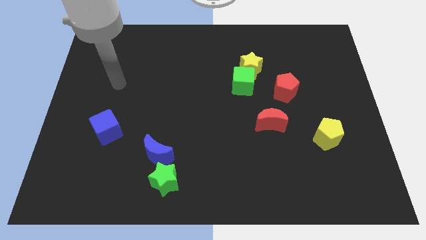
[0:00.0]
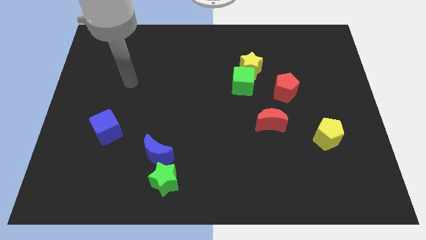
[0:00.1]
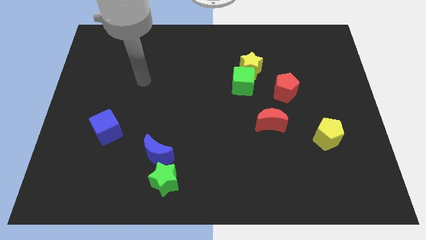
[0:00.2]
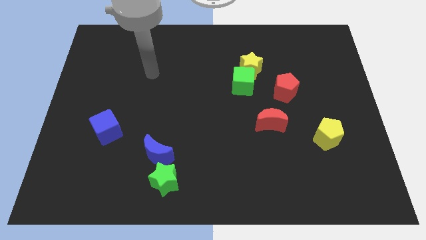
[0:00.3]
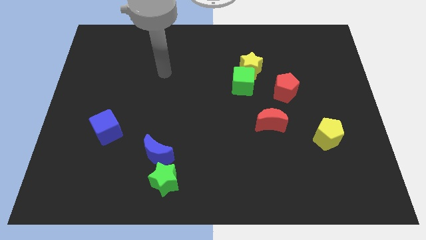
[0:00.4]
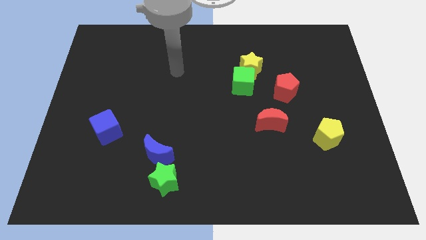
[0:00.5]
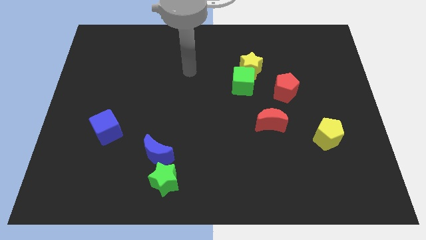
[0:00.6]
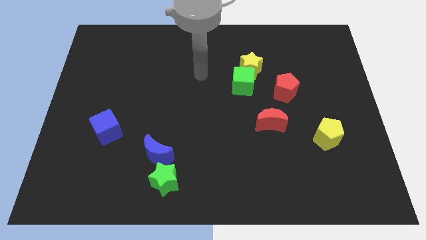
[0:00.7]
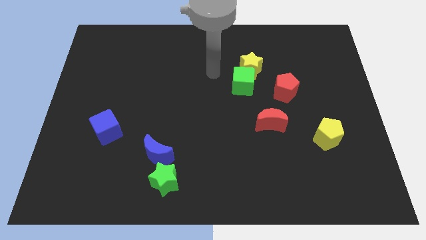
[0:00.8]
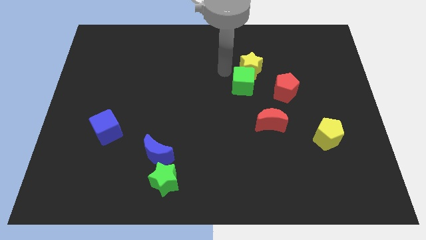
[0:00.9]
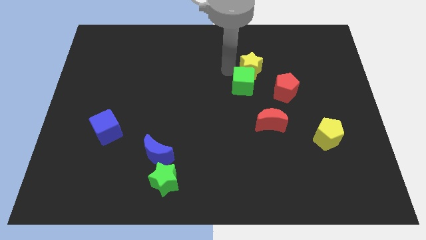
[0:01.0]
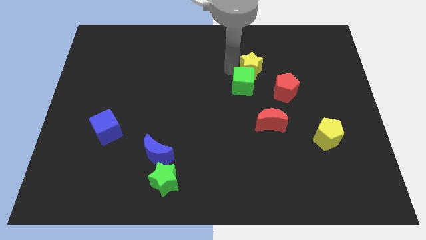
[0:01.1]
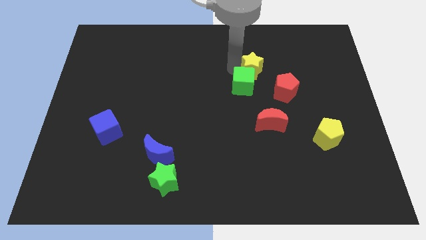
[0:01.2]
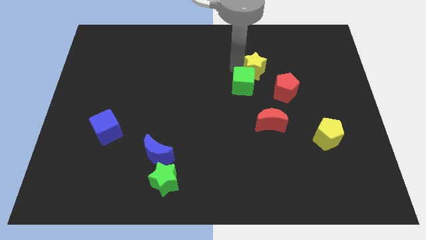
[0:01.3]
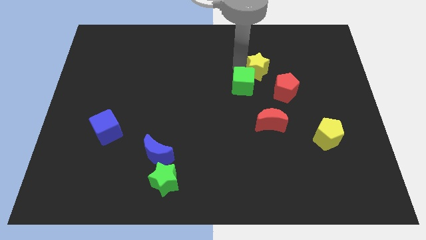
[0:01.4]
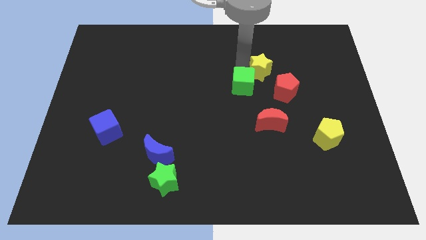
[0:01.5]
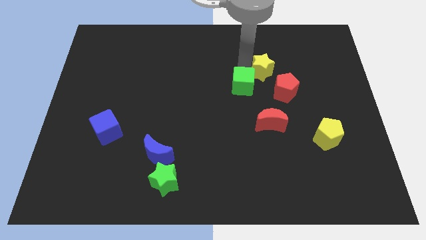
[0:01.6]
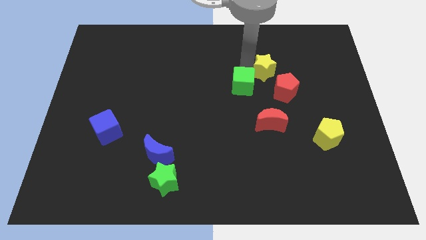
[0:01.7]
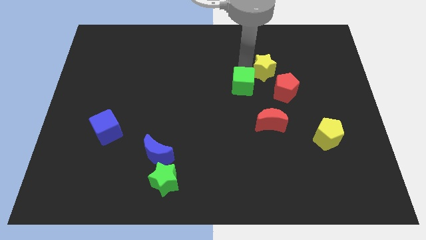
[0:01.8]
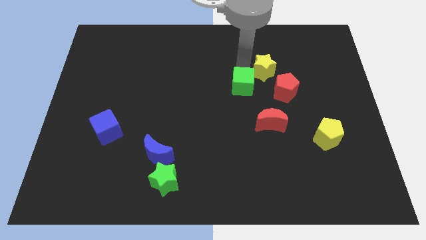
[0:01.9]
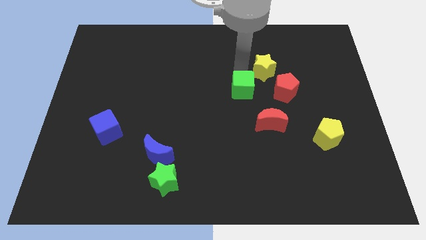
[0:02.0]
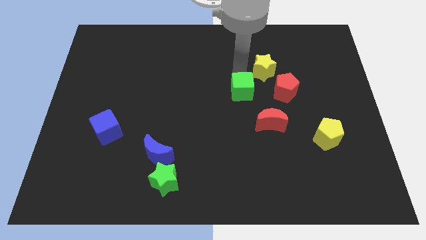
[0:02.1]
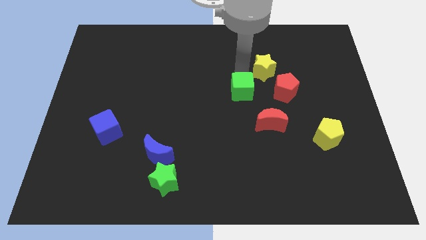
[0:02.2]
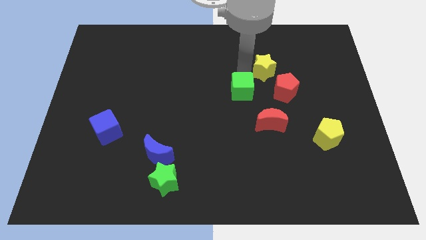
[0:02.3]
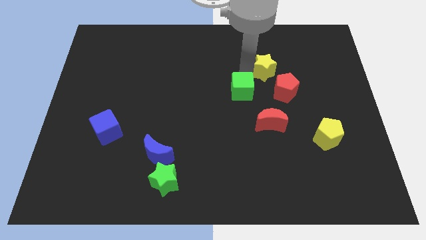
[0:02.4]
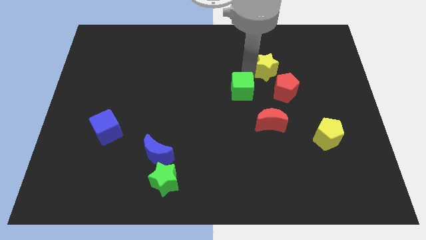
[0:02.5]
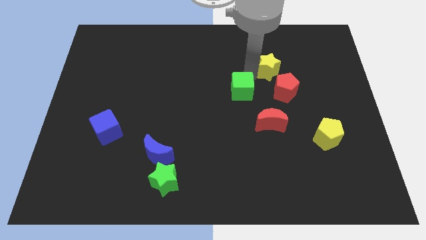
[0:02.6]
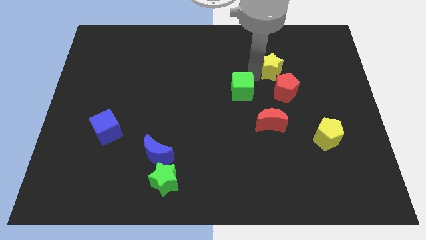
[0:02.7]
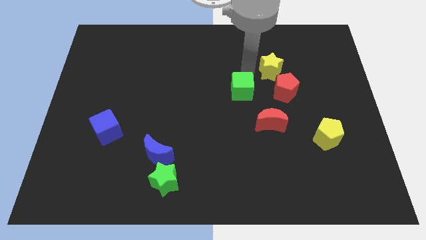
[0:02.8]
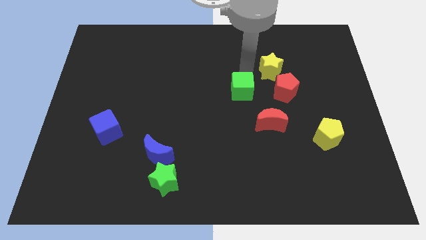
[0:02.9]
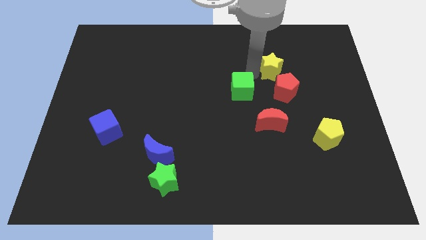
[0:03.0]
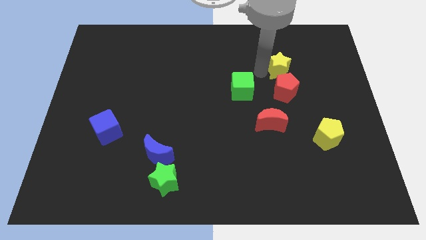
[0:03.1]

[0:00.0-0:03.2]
slide the yellow star somewhat right

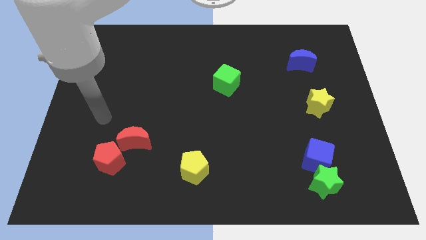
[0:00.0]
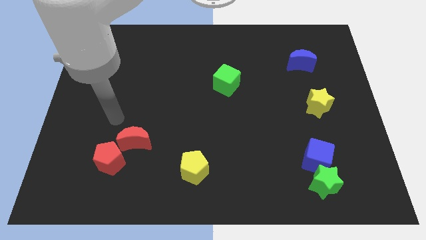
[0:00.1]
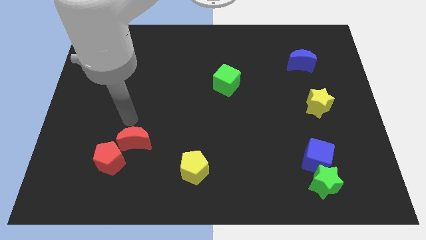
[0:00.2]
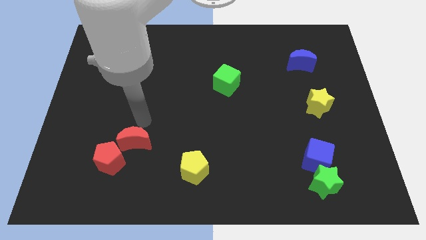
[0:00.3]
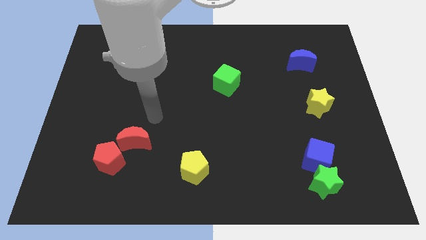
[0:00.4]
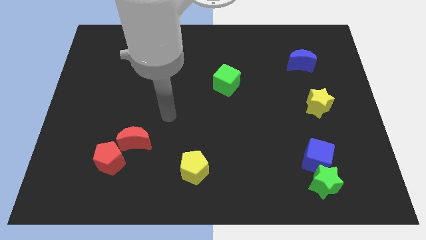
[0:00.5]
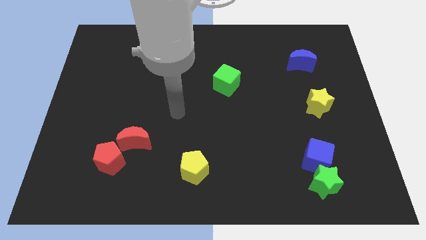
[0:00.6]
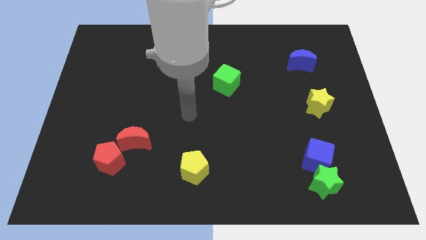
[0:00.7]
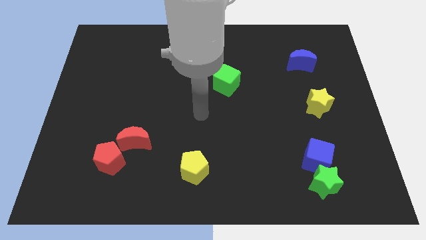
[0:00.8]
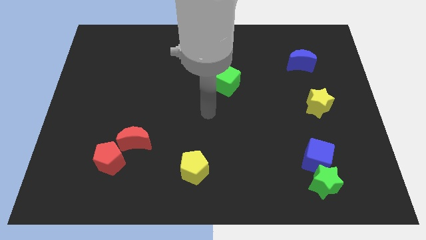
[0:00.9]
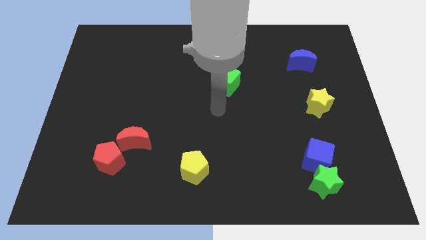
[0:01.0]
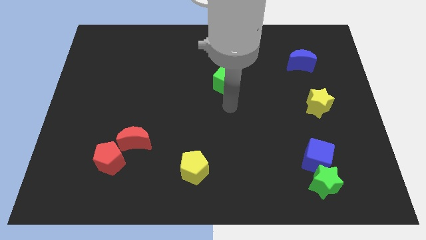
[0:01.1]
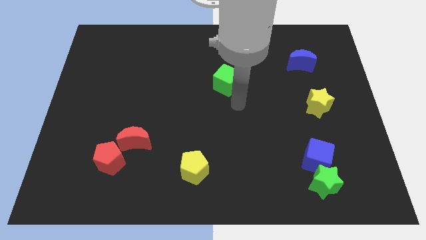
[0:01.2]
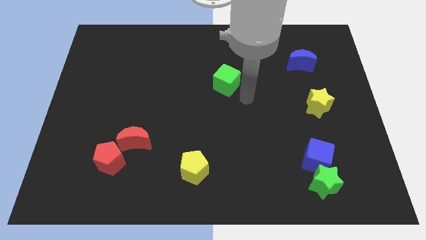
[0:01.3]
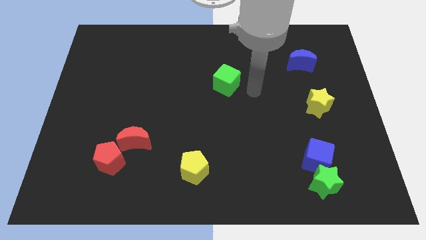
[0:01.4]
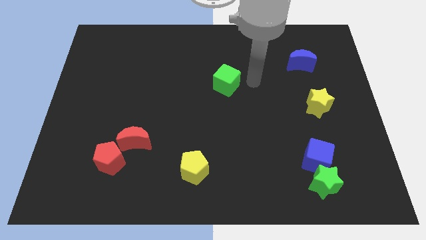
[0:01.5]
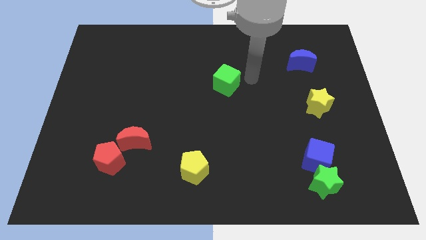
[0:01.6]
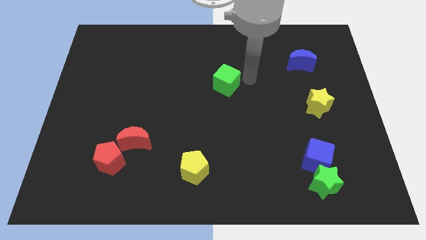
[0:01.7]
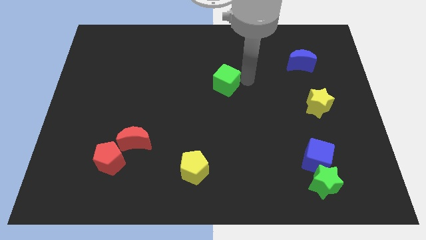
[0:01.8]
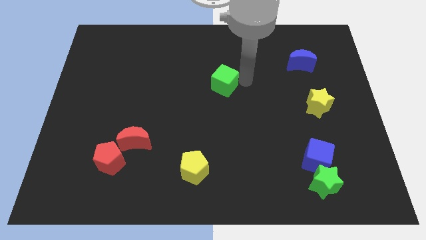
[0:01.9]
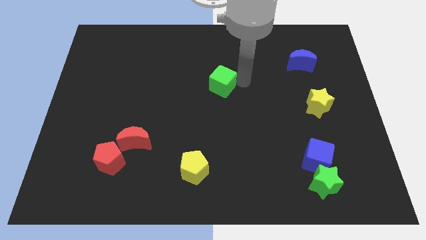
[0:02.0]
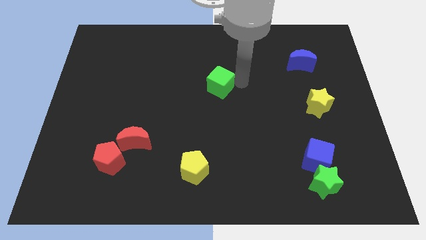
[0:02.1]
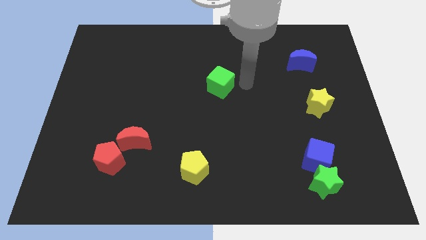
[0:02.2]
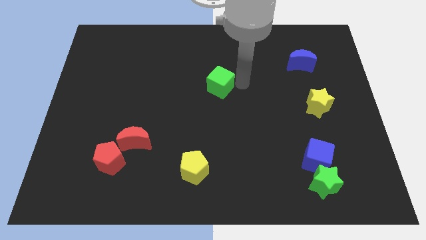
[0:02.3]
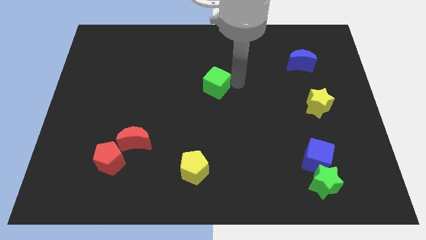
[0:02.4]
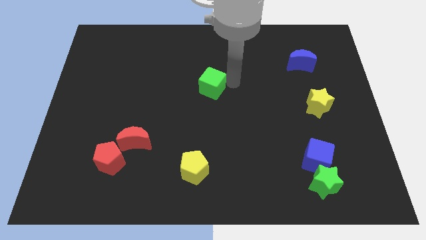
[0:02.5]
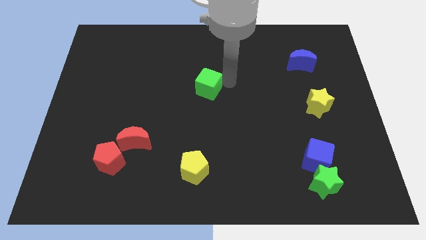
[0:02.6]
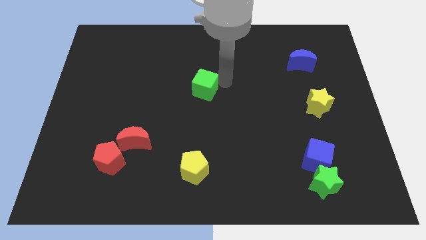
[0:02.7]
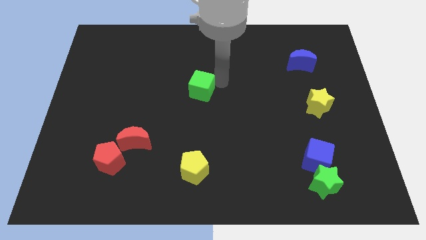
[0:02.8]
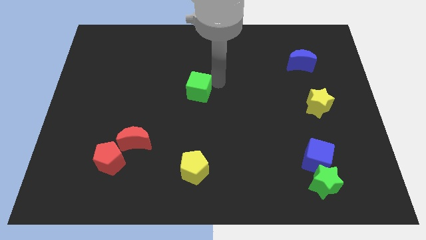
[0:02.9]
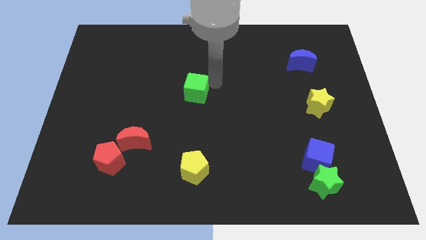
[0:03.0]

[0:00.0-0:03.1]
push the green cube a little bit left

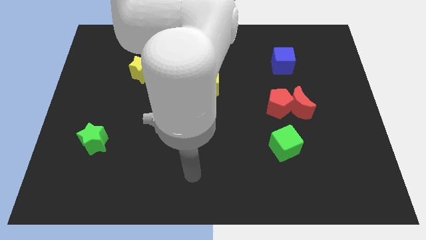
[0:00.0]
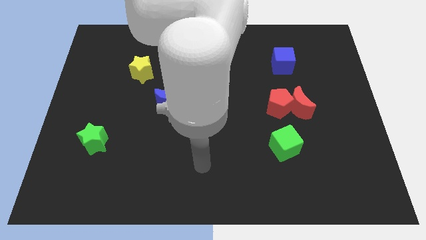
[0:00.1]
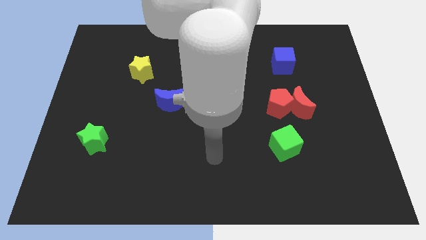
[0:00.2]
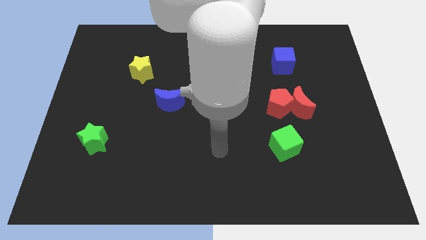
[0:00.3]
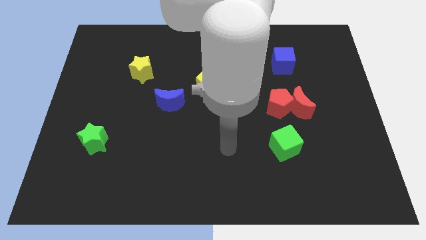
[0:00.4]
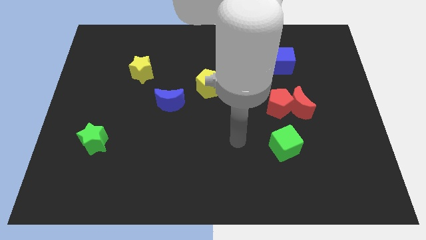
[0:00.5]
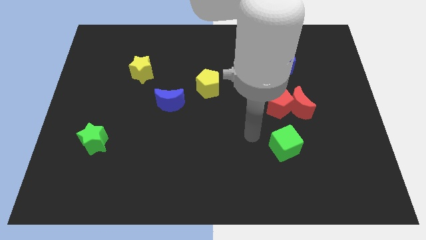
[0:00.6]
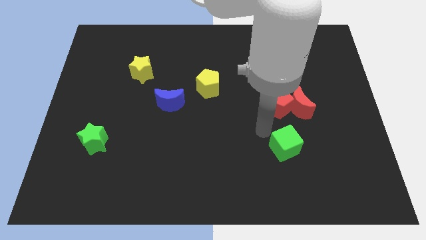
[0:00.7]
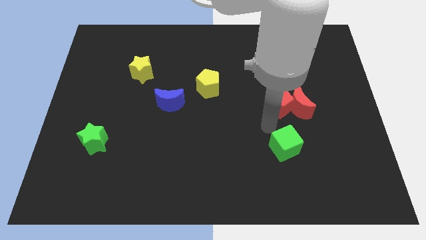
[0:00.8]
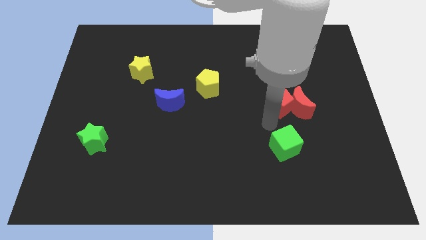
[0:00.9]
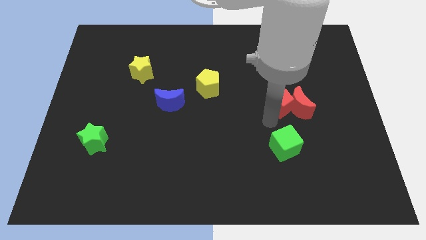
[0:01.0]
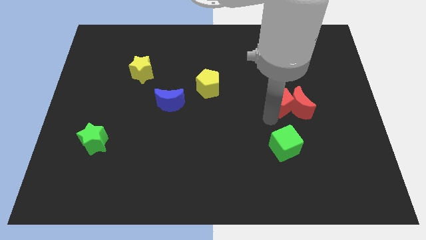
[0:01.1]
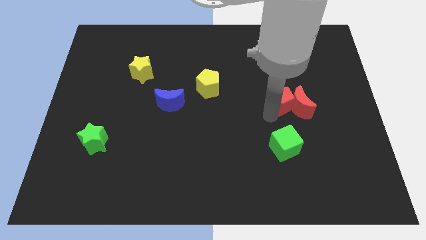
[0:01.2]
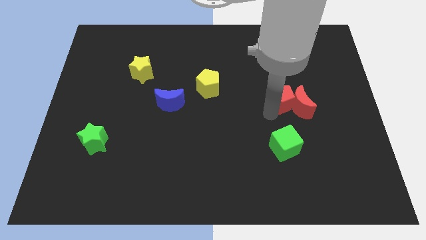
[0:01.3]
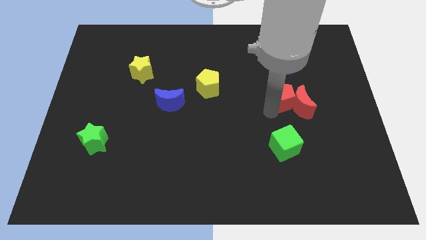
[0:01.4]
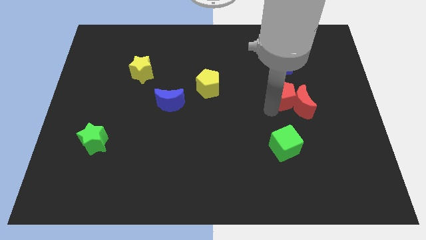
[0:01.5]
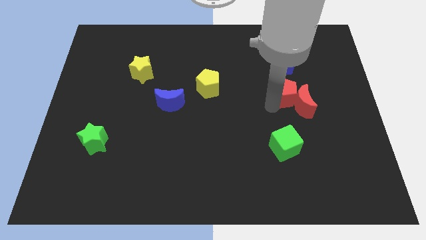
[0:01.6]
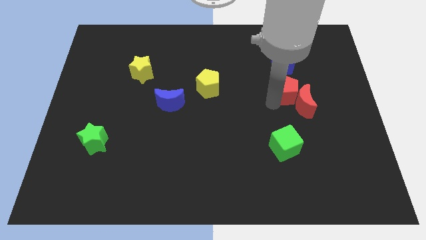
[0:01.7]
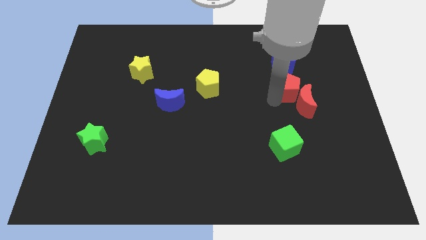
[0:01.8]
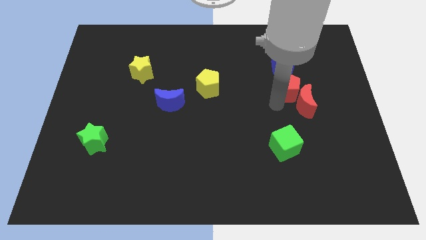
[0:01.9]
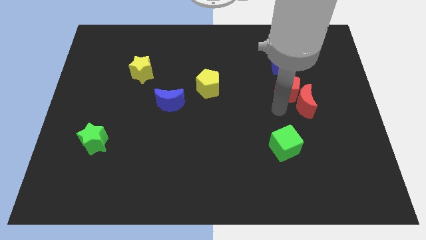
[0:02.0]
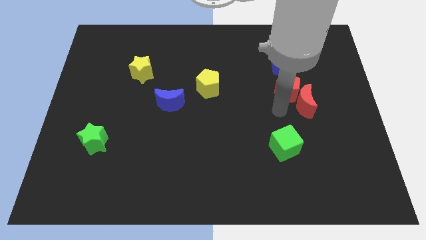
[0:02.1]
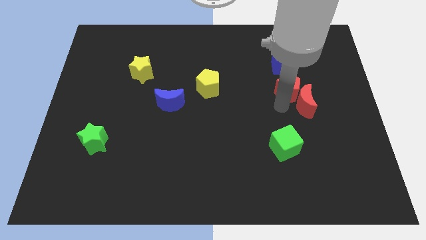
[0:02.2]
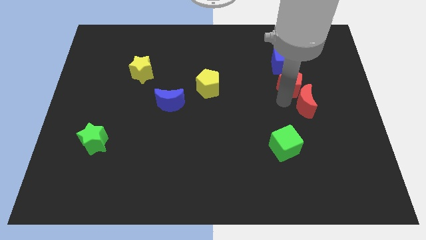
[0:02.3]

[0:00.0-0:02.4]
slightly push the red pentagon upwards and right
